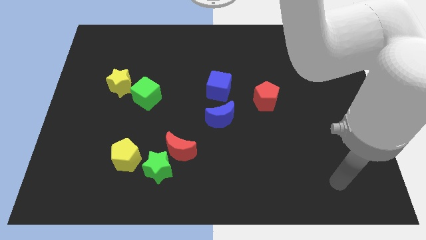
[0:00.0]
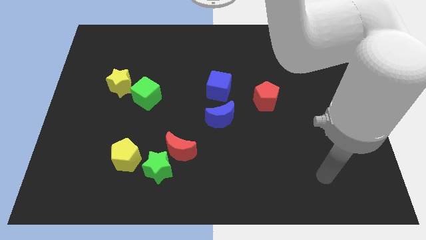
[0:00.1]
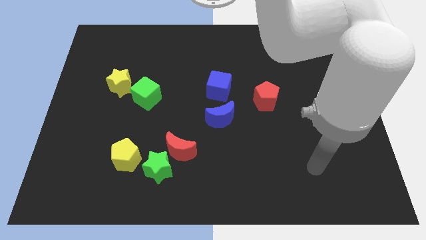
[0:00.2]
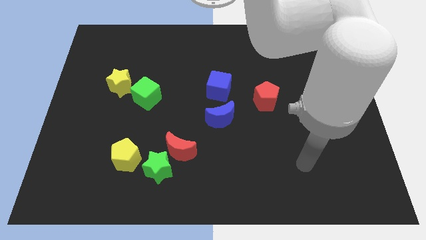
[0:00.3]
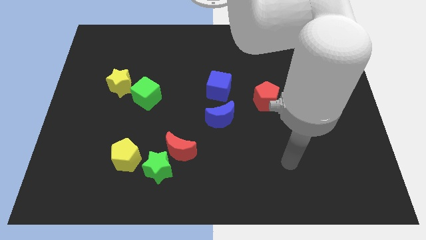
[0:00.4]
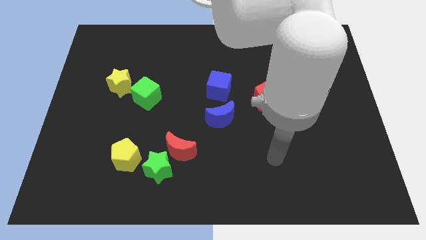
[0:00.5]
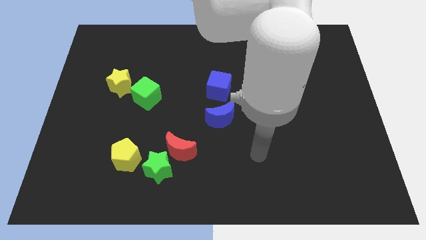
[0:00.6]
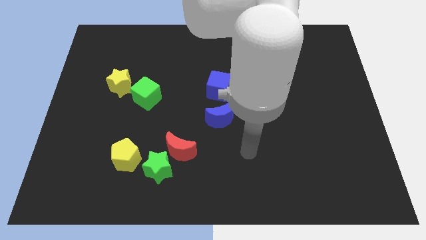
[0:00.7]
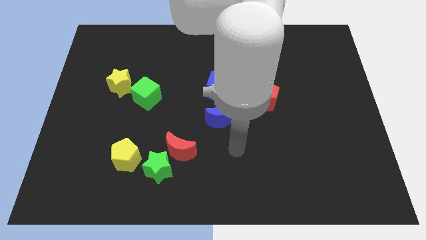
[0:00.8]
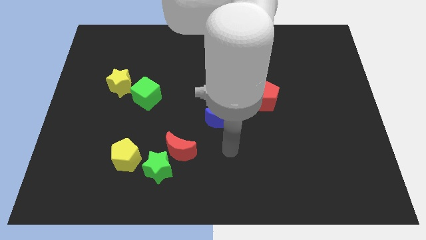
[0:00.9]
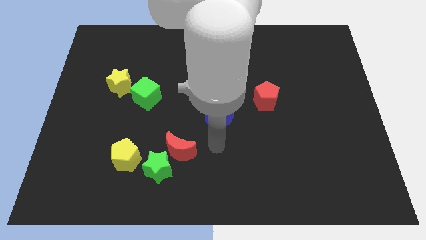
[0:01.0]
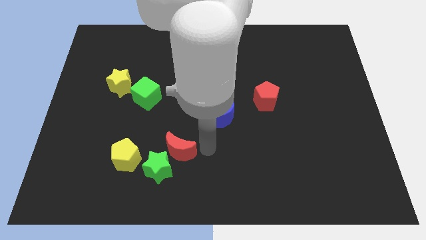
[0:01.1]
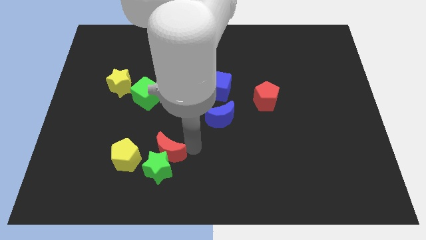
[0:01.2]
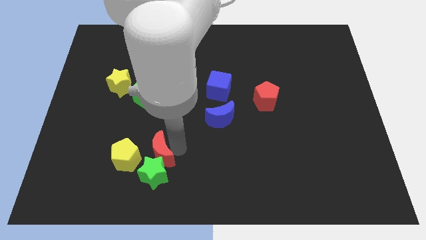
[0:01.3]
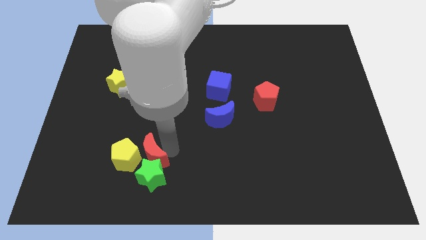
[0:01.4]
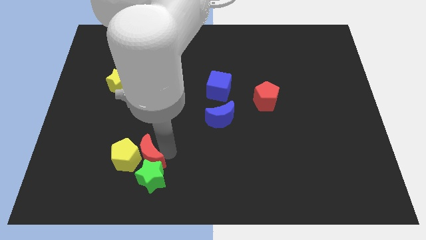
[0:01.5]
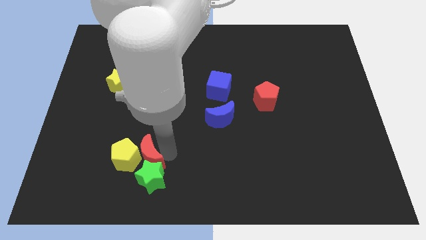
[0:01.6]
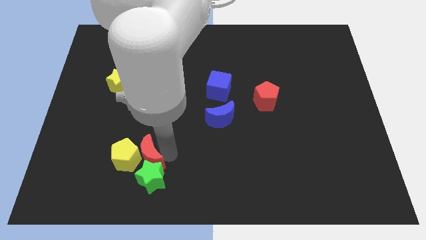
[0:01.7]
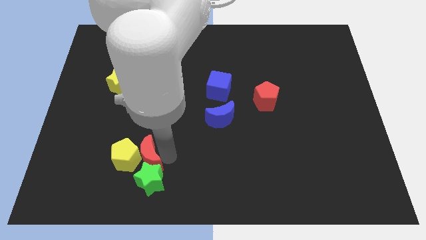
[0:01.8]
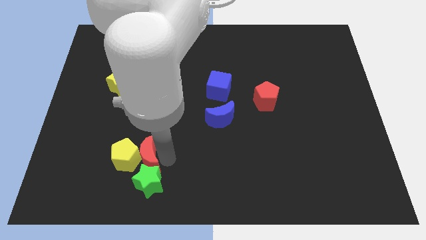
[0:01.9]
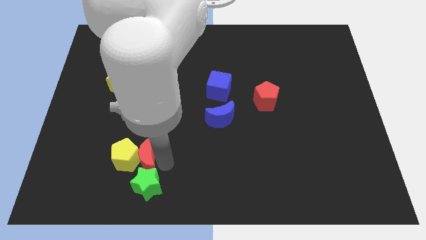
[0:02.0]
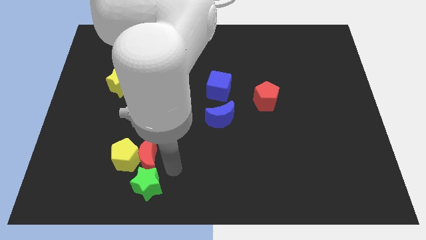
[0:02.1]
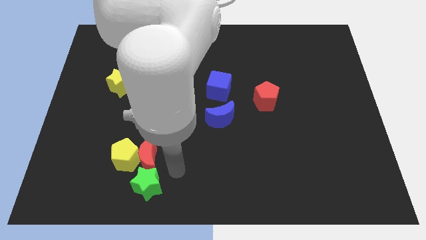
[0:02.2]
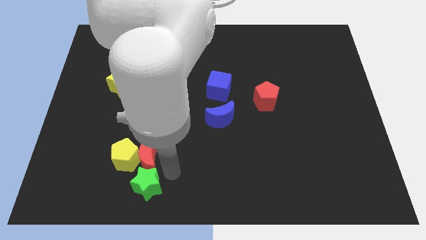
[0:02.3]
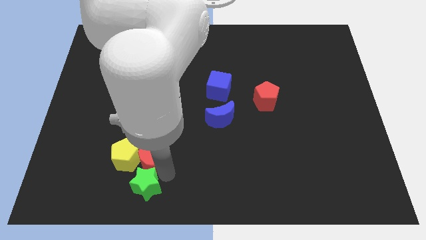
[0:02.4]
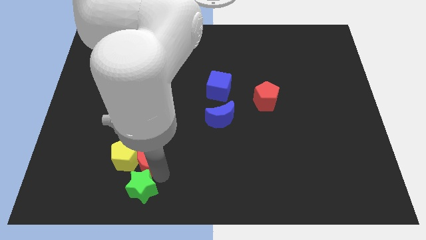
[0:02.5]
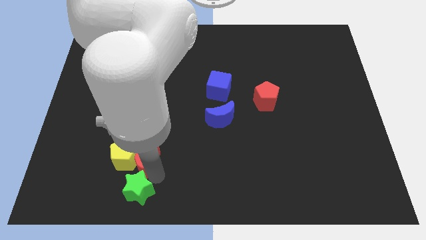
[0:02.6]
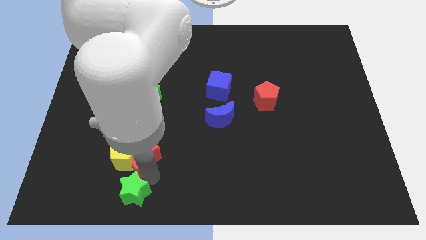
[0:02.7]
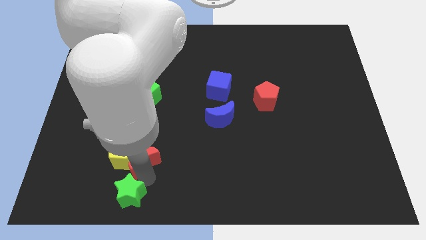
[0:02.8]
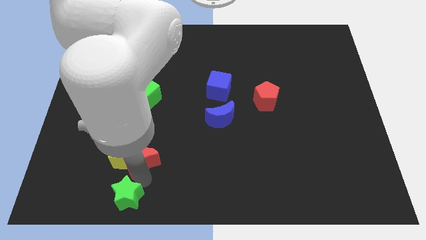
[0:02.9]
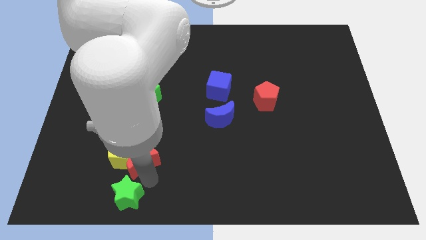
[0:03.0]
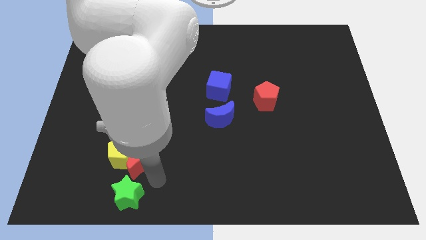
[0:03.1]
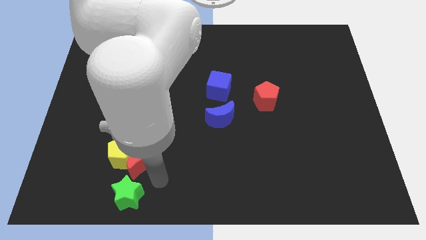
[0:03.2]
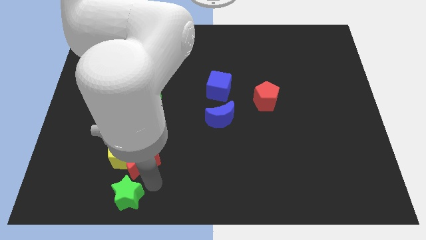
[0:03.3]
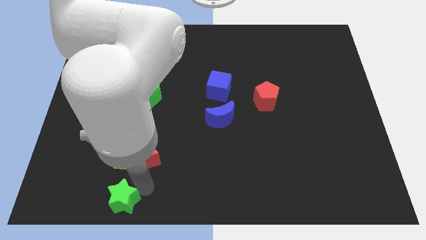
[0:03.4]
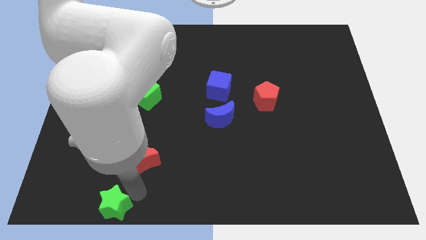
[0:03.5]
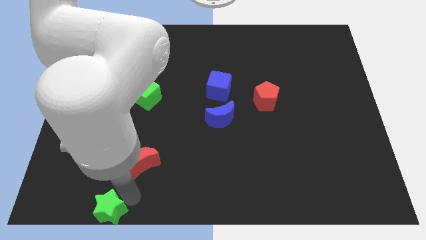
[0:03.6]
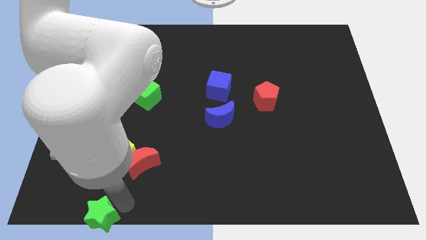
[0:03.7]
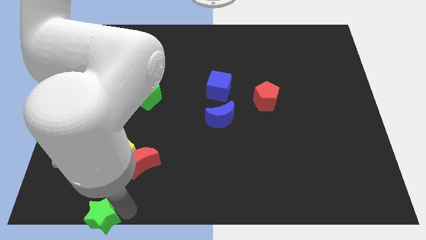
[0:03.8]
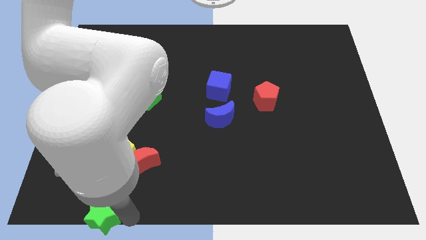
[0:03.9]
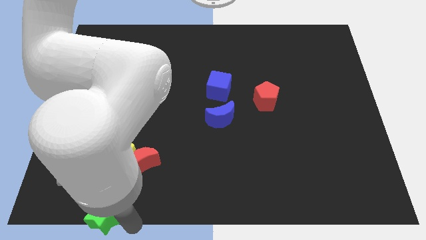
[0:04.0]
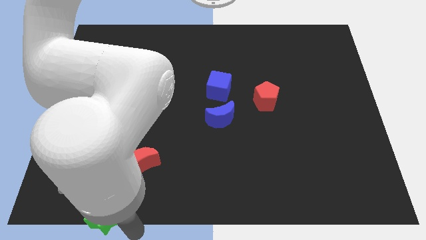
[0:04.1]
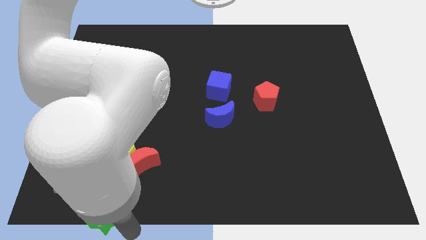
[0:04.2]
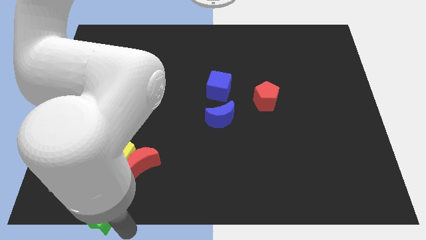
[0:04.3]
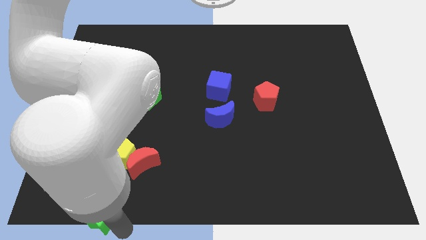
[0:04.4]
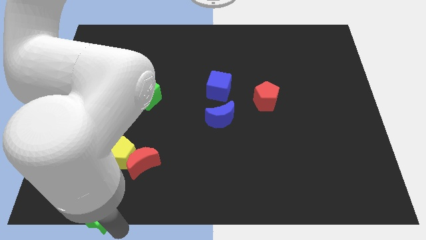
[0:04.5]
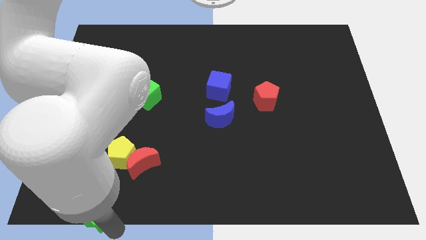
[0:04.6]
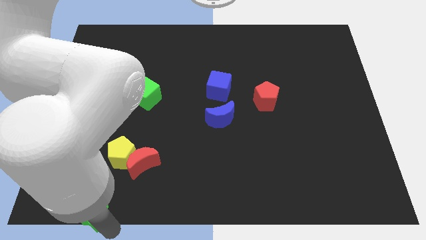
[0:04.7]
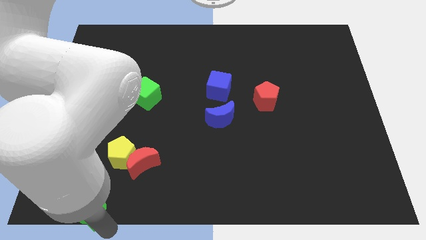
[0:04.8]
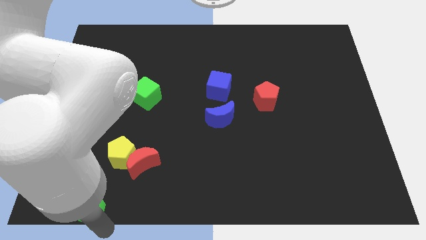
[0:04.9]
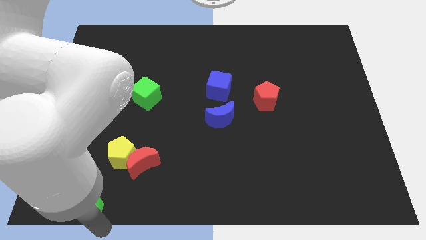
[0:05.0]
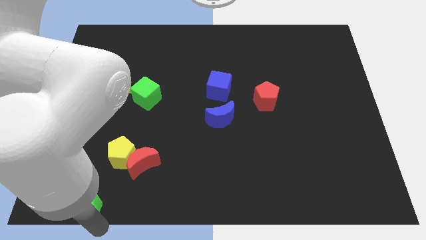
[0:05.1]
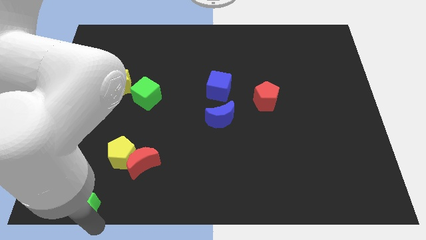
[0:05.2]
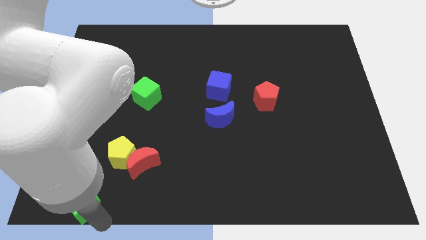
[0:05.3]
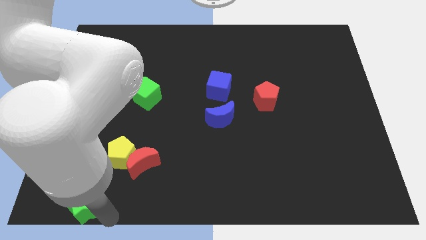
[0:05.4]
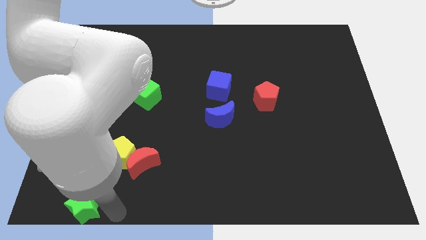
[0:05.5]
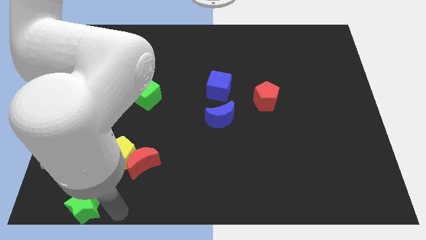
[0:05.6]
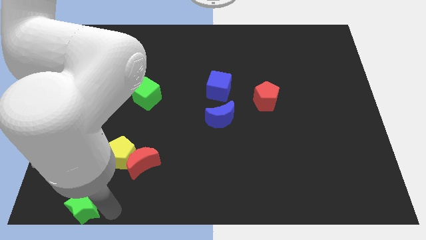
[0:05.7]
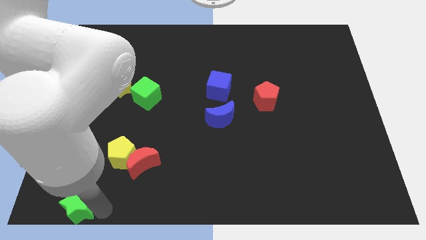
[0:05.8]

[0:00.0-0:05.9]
put the green star to the bottom left
